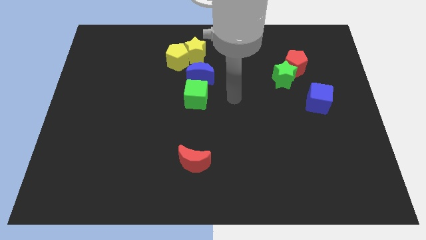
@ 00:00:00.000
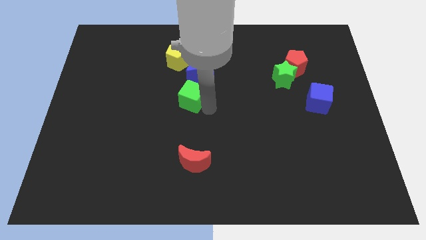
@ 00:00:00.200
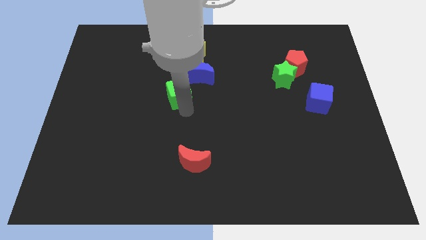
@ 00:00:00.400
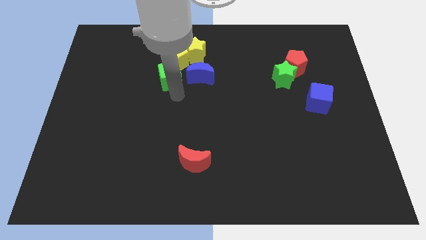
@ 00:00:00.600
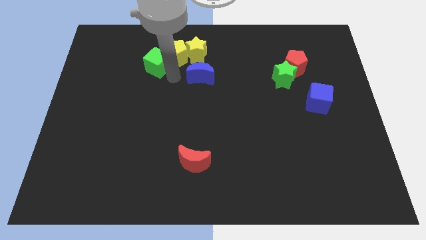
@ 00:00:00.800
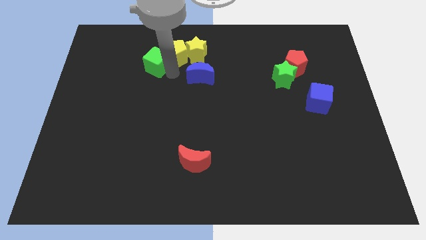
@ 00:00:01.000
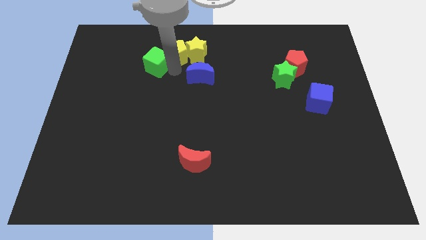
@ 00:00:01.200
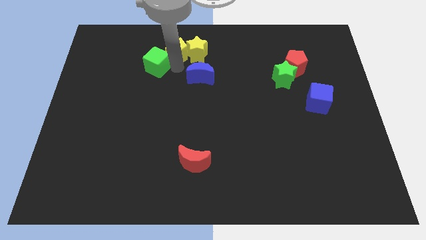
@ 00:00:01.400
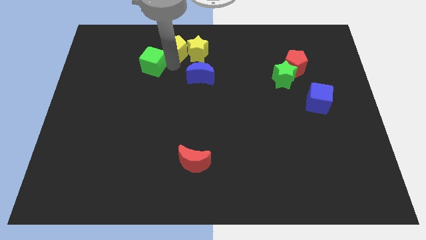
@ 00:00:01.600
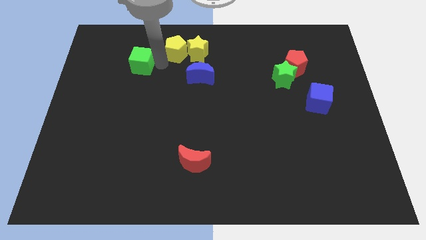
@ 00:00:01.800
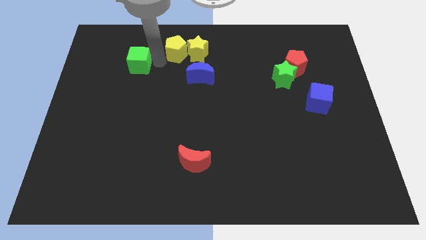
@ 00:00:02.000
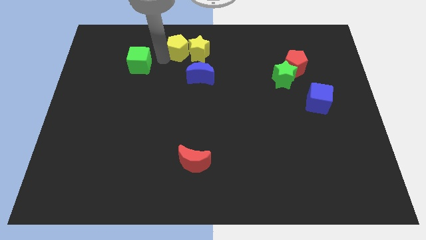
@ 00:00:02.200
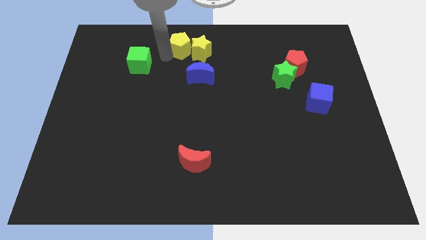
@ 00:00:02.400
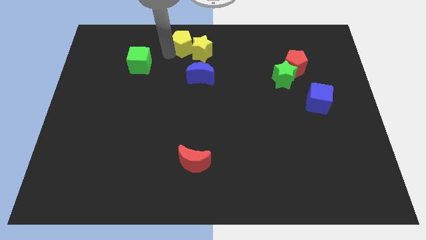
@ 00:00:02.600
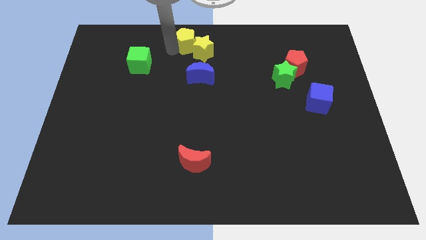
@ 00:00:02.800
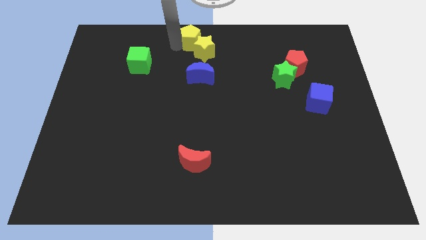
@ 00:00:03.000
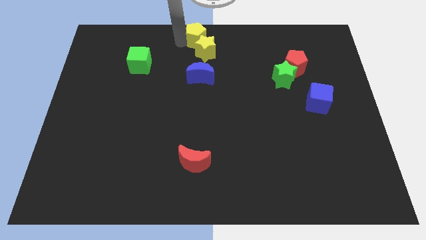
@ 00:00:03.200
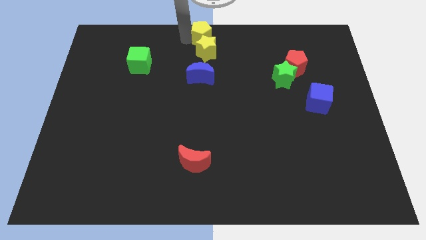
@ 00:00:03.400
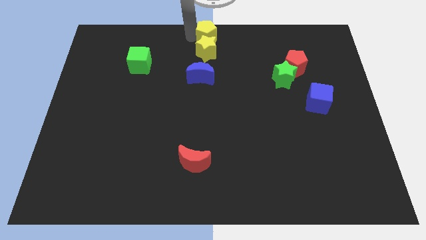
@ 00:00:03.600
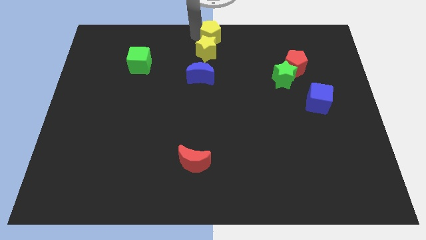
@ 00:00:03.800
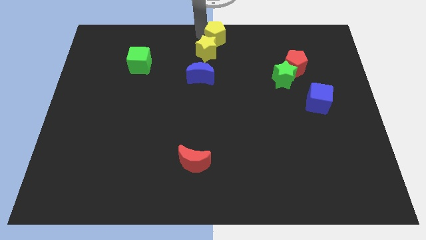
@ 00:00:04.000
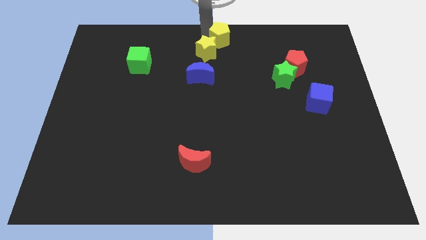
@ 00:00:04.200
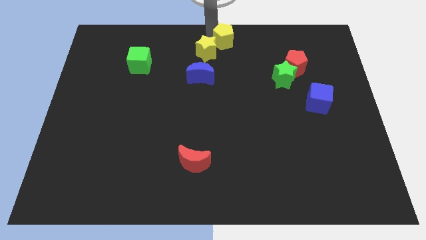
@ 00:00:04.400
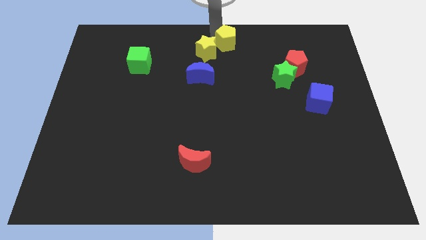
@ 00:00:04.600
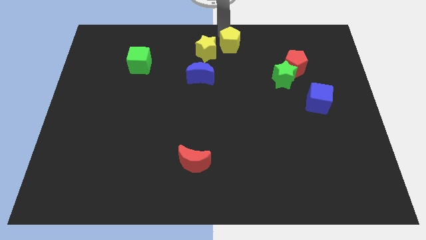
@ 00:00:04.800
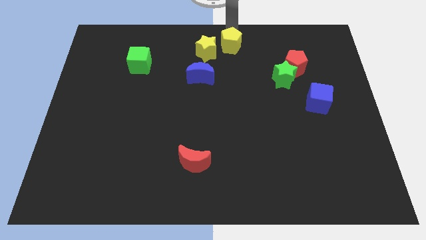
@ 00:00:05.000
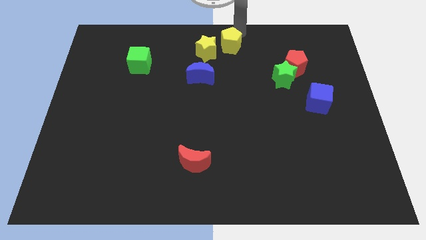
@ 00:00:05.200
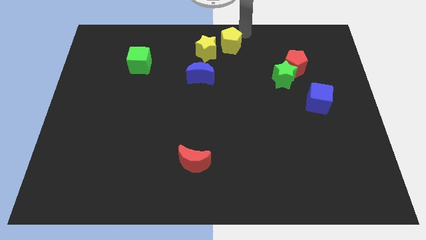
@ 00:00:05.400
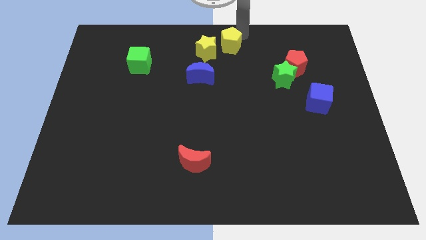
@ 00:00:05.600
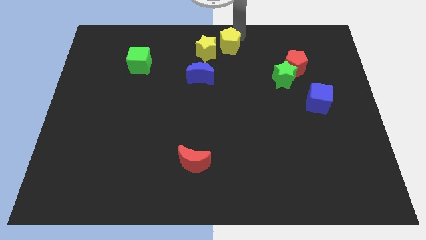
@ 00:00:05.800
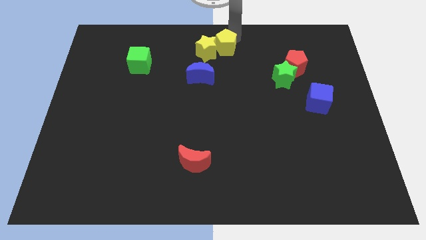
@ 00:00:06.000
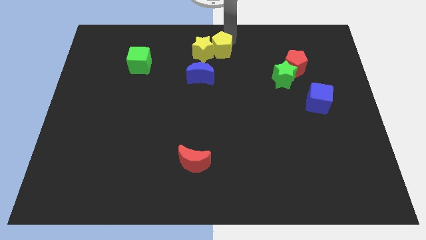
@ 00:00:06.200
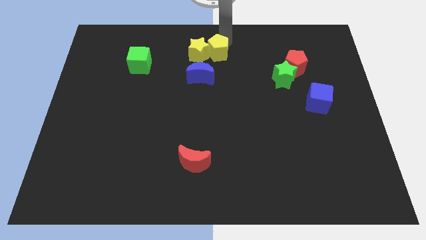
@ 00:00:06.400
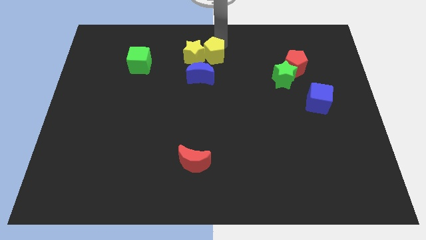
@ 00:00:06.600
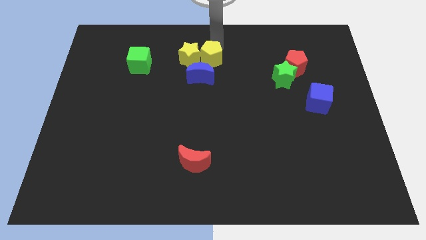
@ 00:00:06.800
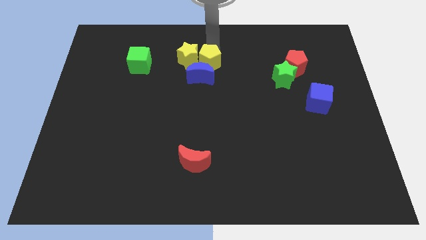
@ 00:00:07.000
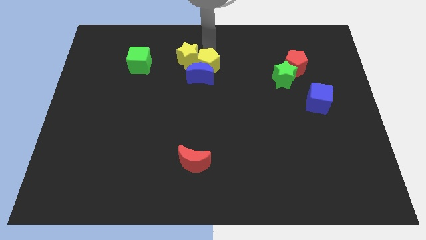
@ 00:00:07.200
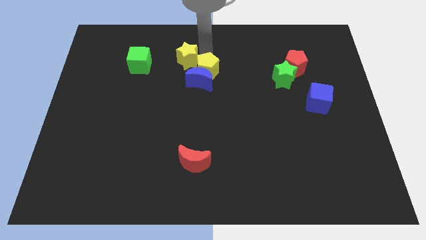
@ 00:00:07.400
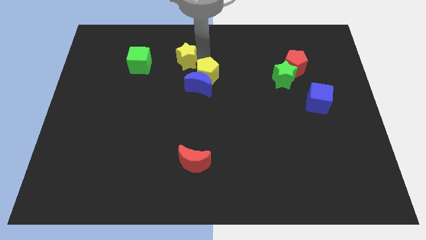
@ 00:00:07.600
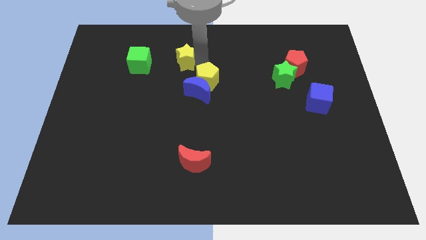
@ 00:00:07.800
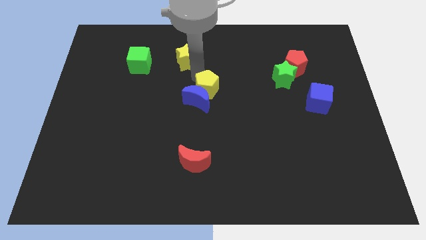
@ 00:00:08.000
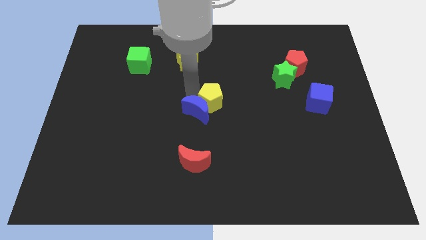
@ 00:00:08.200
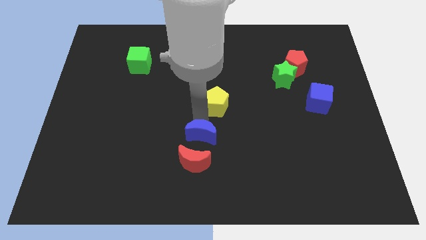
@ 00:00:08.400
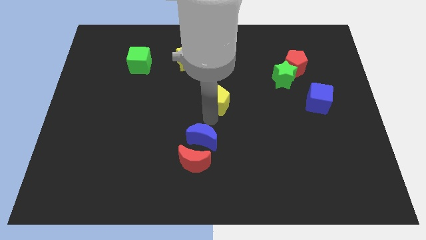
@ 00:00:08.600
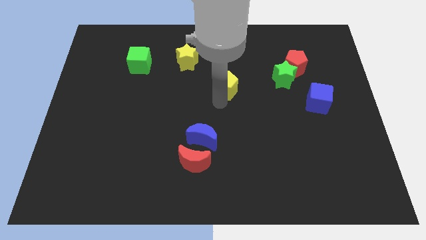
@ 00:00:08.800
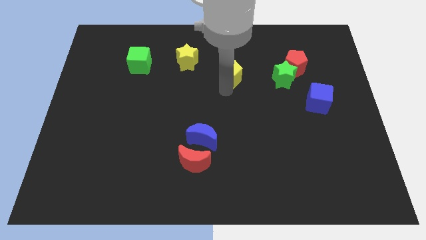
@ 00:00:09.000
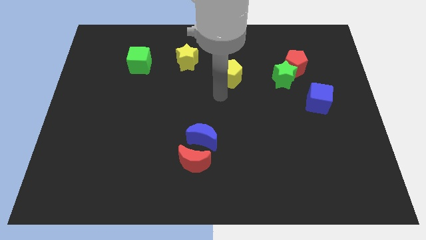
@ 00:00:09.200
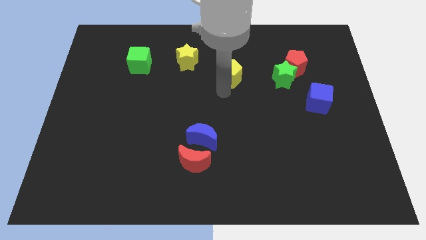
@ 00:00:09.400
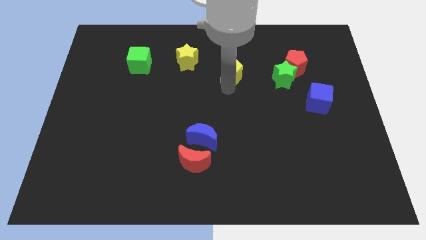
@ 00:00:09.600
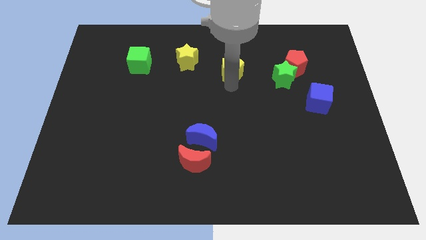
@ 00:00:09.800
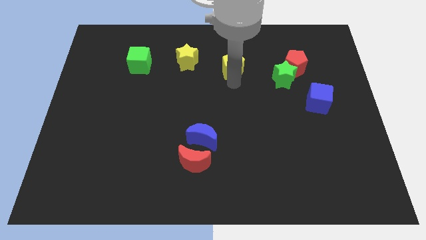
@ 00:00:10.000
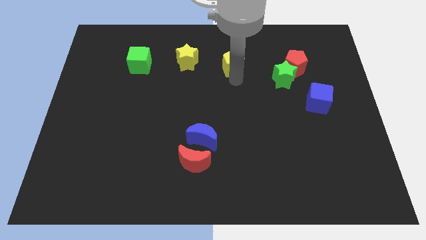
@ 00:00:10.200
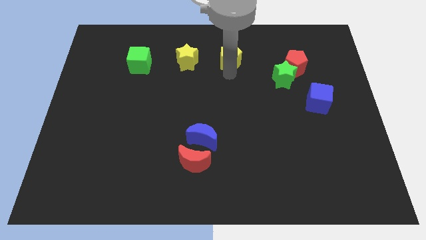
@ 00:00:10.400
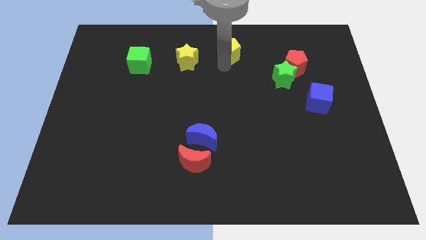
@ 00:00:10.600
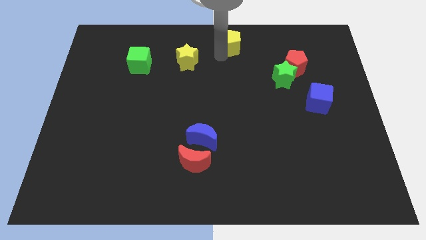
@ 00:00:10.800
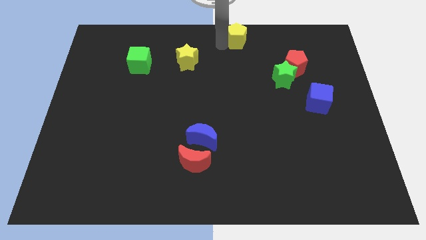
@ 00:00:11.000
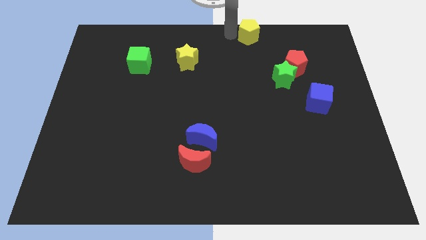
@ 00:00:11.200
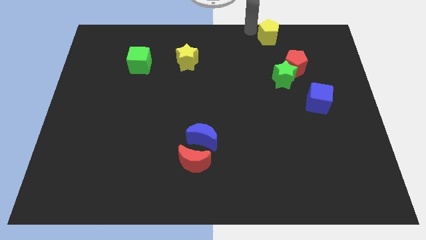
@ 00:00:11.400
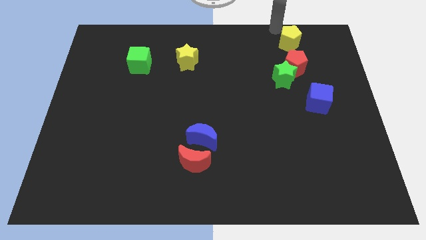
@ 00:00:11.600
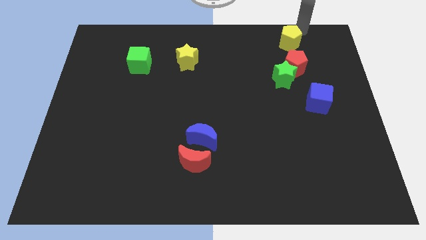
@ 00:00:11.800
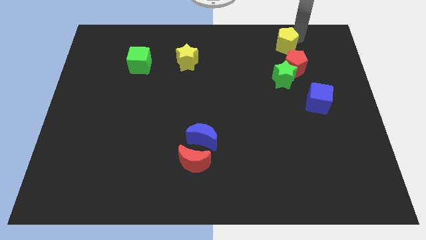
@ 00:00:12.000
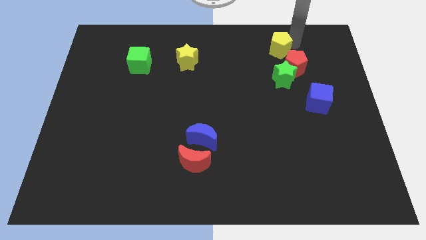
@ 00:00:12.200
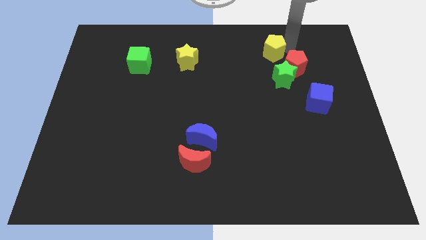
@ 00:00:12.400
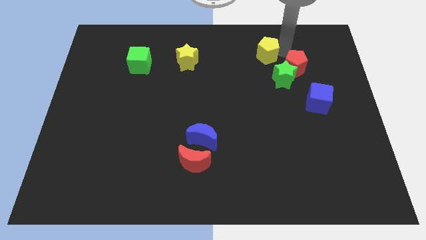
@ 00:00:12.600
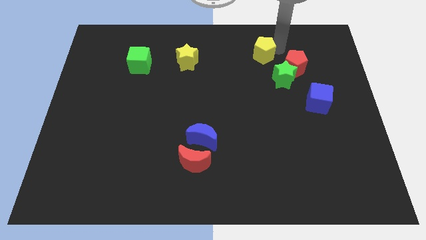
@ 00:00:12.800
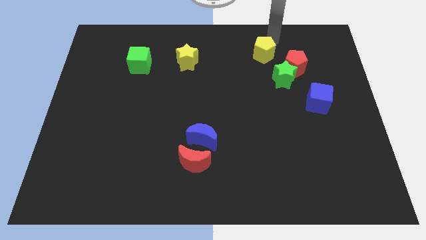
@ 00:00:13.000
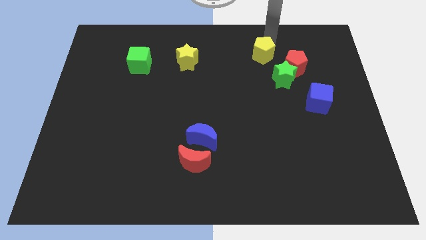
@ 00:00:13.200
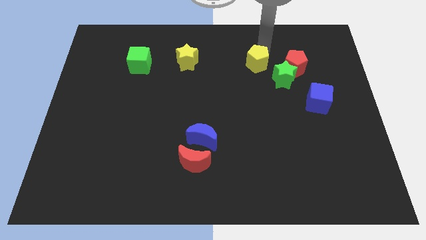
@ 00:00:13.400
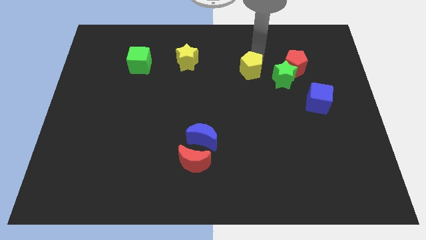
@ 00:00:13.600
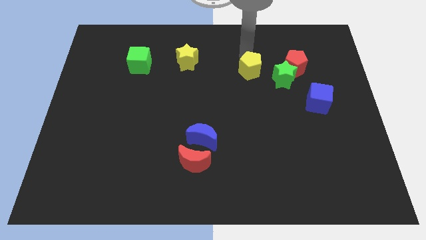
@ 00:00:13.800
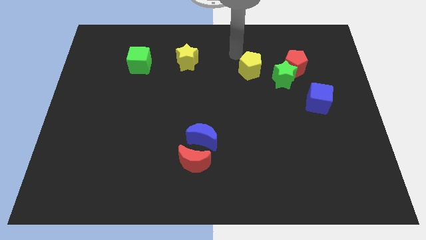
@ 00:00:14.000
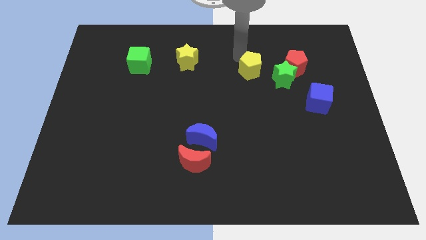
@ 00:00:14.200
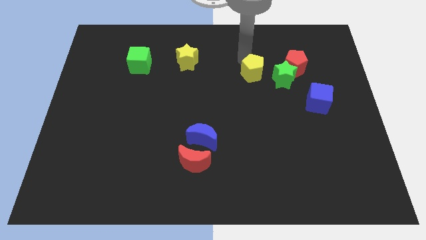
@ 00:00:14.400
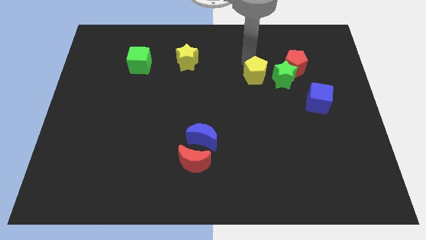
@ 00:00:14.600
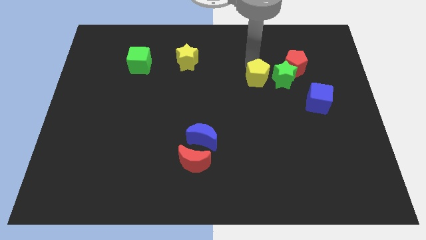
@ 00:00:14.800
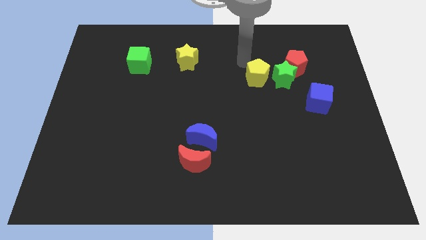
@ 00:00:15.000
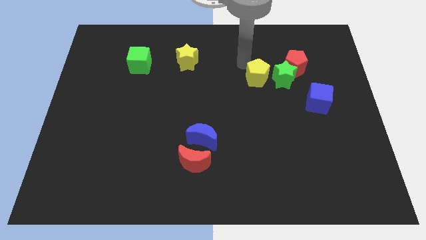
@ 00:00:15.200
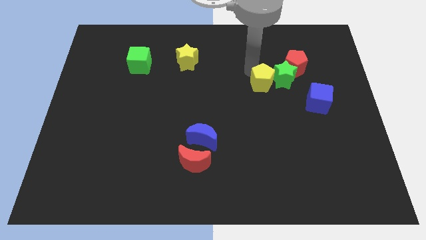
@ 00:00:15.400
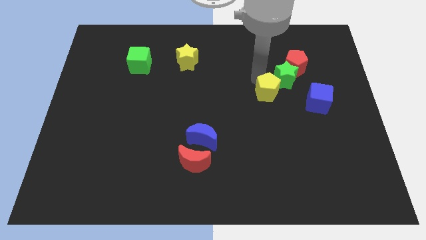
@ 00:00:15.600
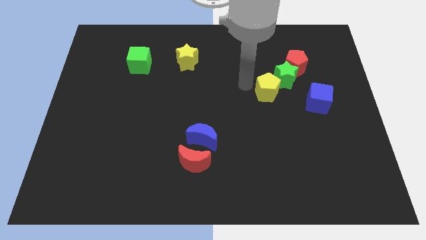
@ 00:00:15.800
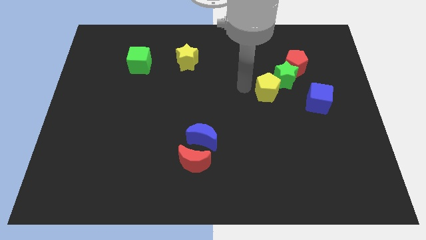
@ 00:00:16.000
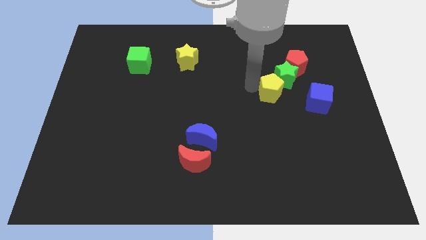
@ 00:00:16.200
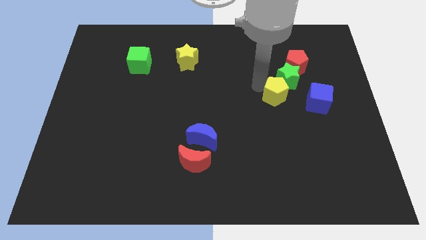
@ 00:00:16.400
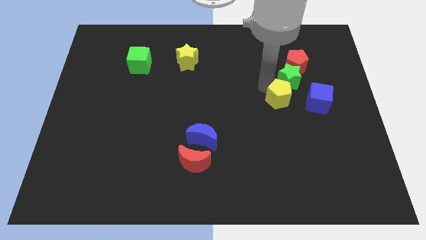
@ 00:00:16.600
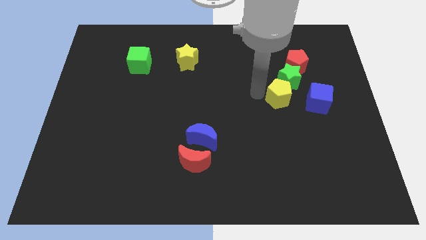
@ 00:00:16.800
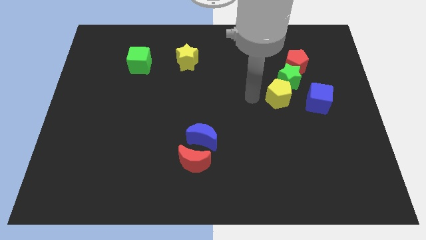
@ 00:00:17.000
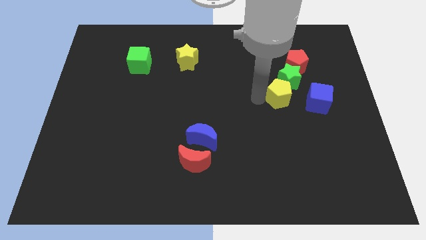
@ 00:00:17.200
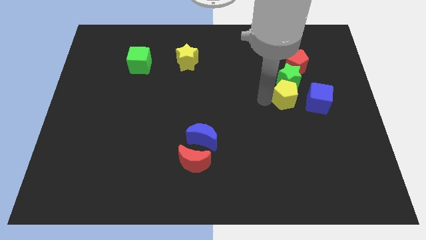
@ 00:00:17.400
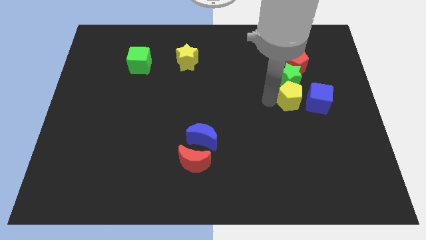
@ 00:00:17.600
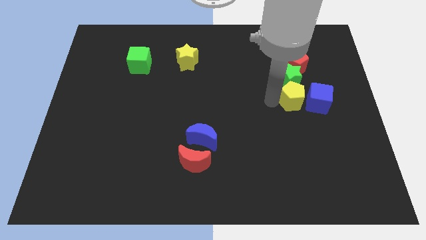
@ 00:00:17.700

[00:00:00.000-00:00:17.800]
push the yellow pentagon next to the blue cube
